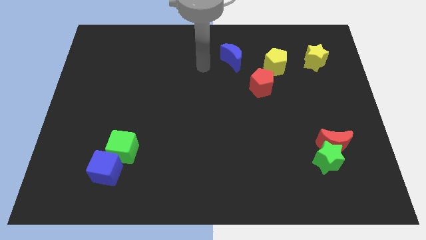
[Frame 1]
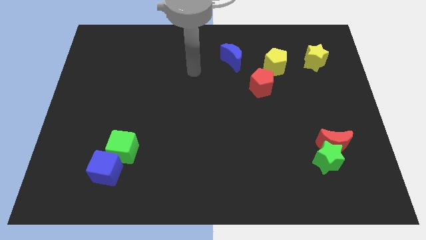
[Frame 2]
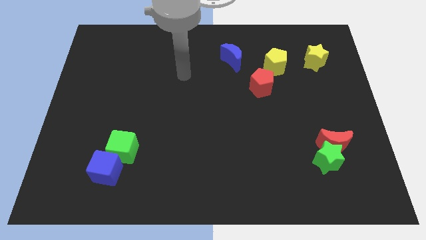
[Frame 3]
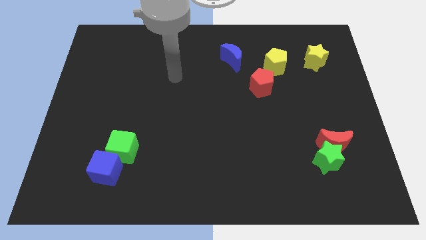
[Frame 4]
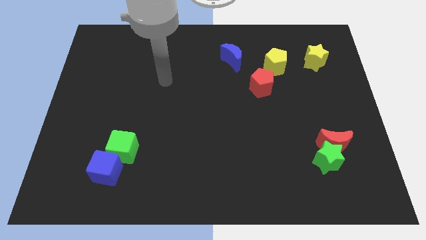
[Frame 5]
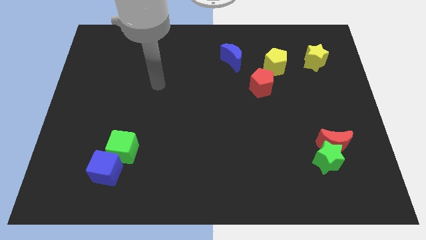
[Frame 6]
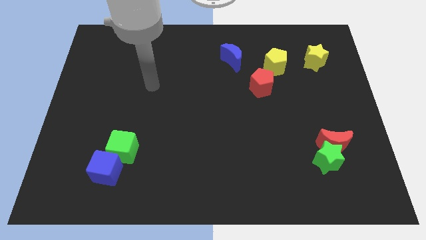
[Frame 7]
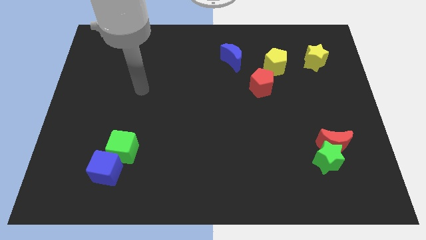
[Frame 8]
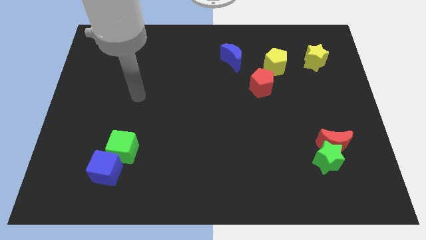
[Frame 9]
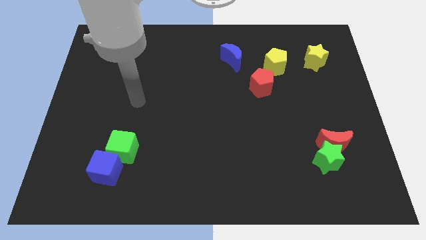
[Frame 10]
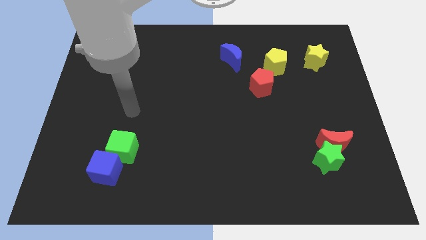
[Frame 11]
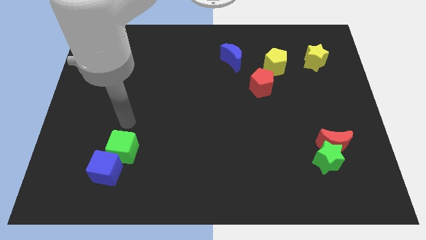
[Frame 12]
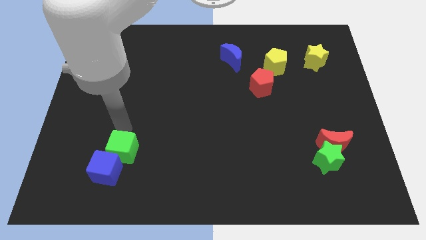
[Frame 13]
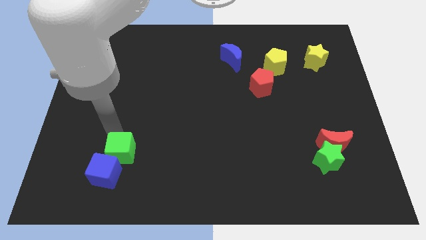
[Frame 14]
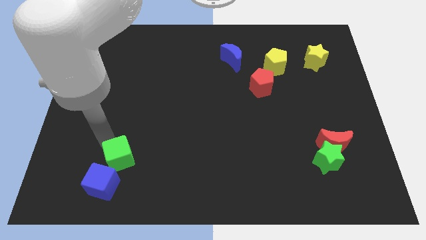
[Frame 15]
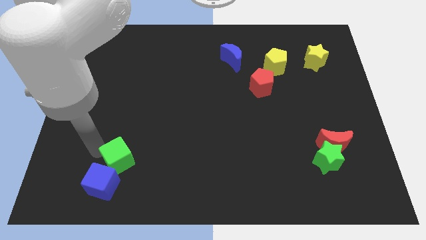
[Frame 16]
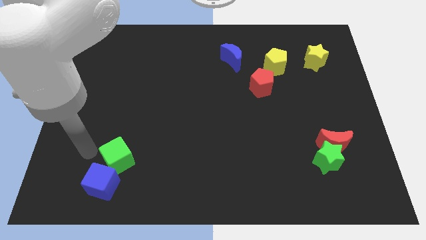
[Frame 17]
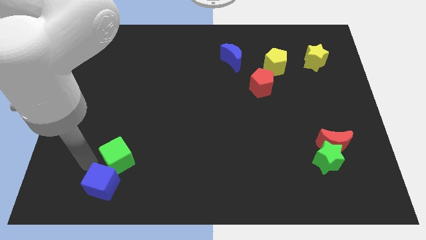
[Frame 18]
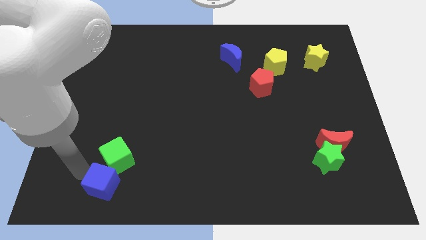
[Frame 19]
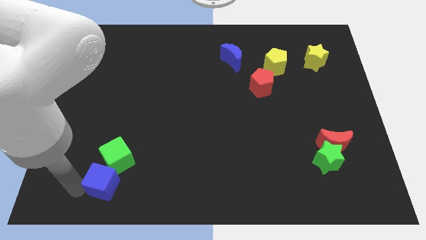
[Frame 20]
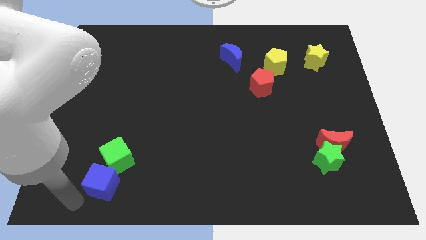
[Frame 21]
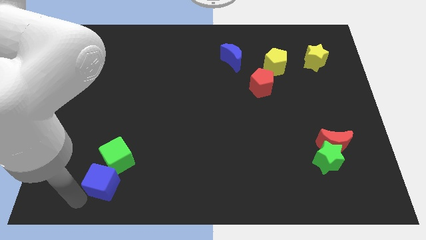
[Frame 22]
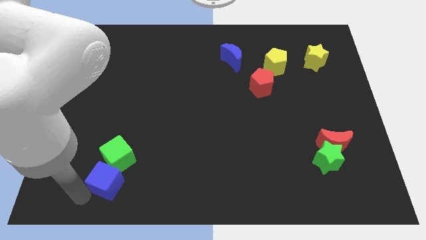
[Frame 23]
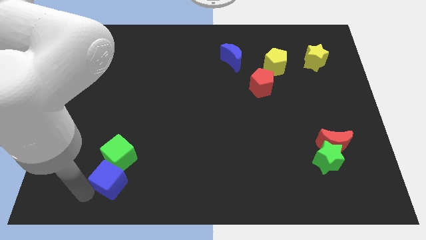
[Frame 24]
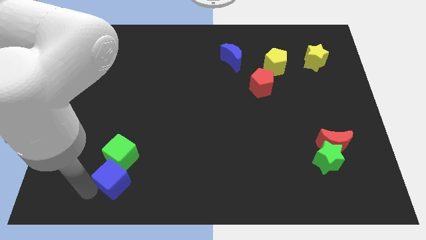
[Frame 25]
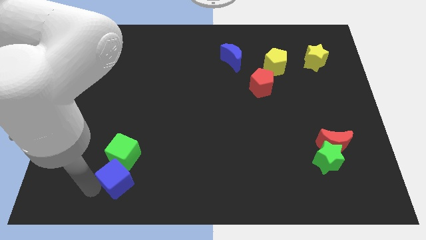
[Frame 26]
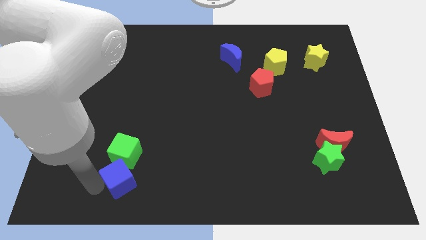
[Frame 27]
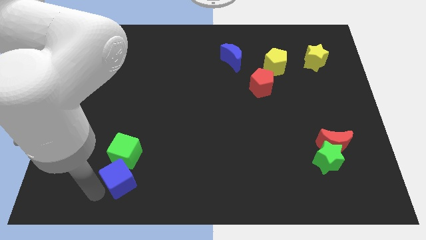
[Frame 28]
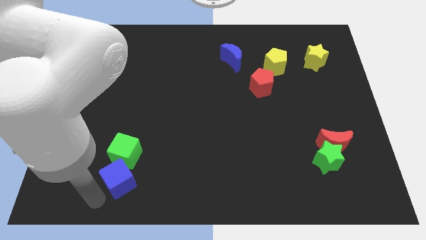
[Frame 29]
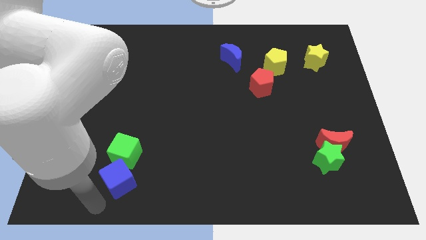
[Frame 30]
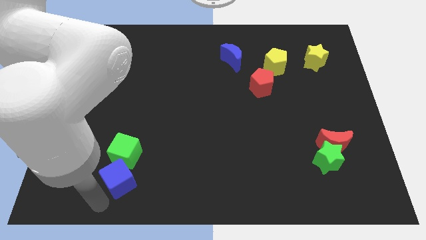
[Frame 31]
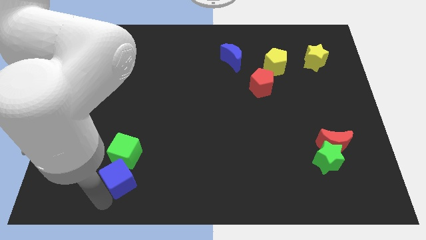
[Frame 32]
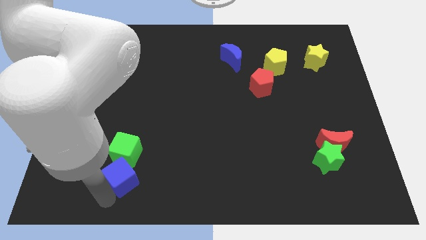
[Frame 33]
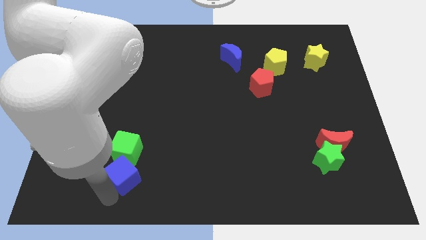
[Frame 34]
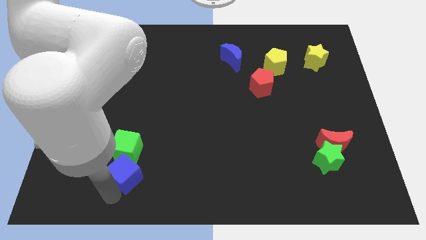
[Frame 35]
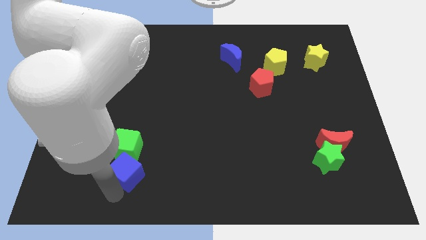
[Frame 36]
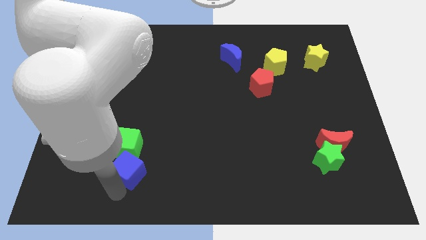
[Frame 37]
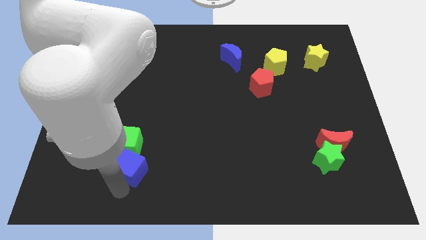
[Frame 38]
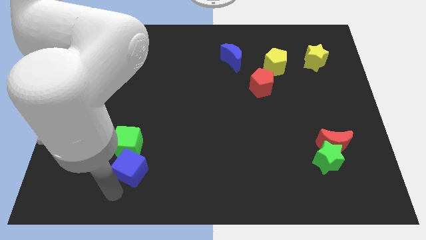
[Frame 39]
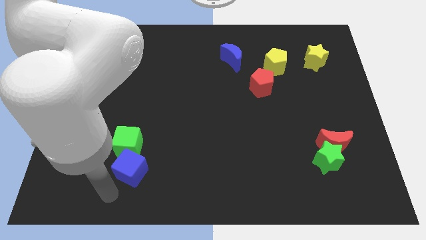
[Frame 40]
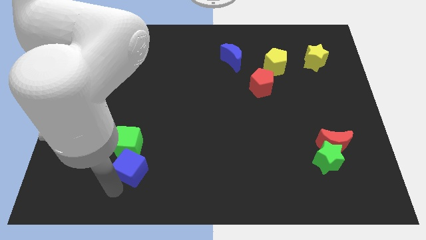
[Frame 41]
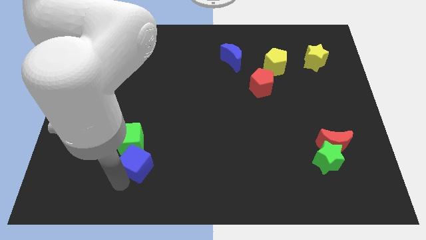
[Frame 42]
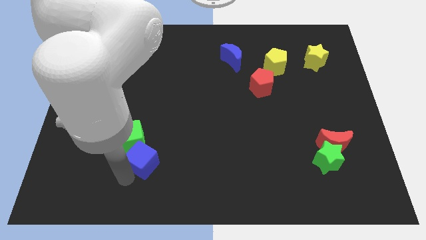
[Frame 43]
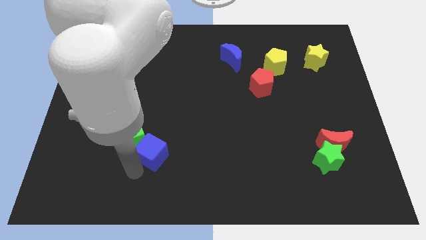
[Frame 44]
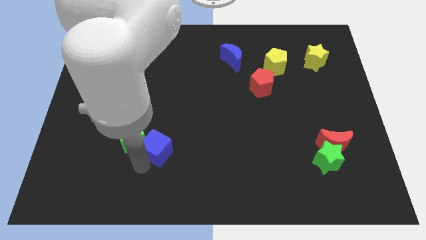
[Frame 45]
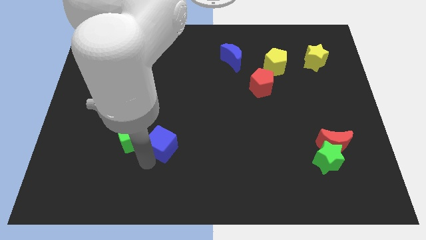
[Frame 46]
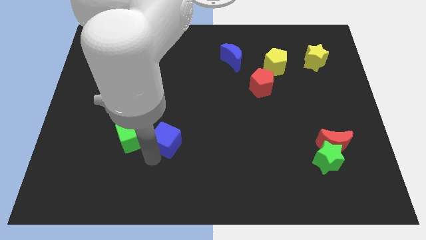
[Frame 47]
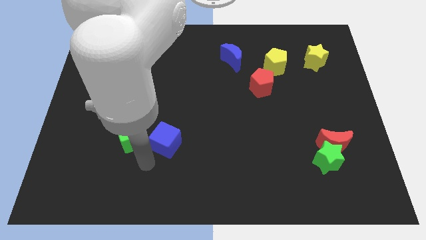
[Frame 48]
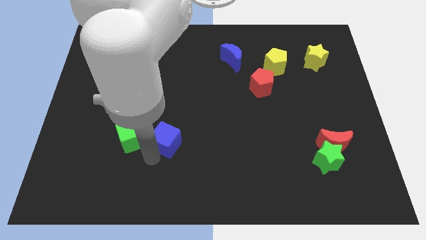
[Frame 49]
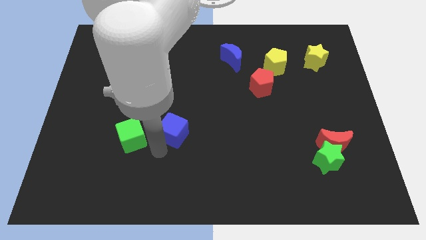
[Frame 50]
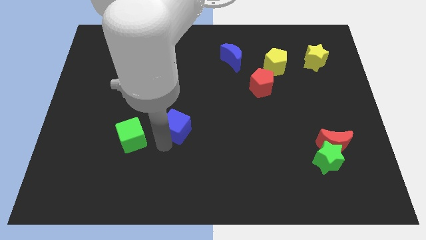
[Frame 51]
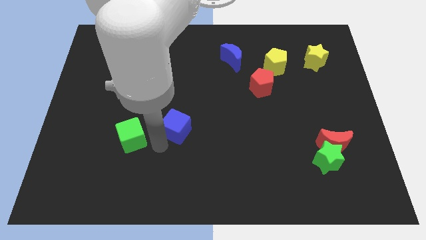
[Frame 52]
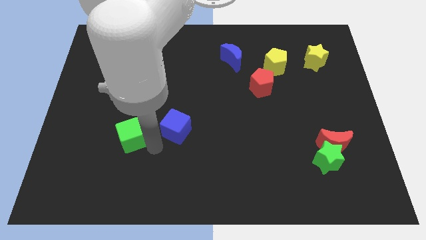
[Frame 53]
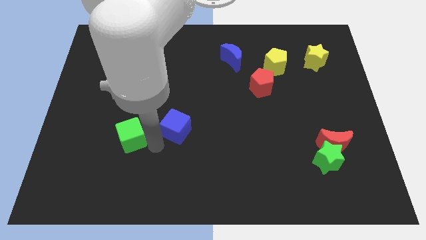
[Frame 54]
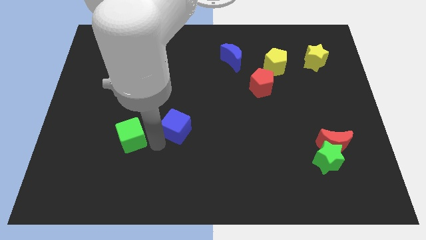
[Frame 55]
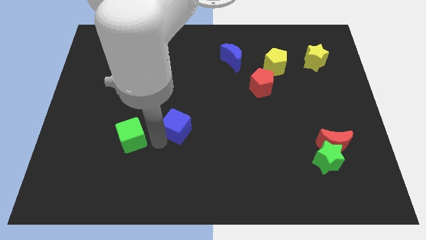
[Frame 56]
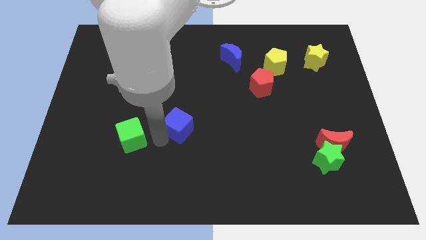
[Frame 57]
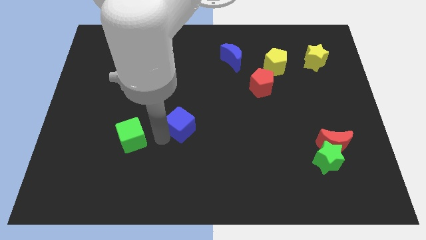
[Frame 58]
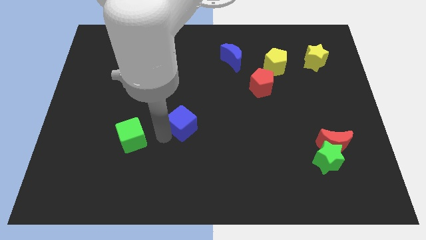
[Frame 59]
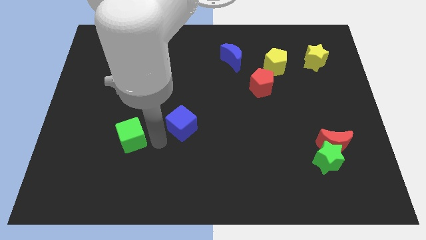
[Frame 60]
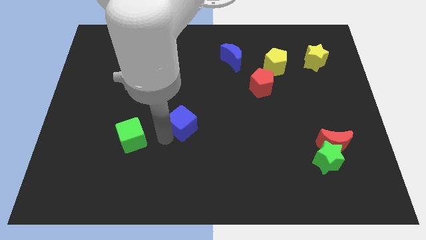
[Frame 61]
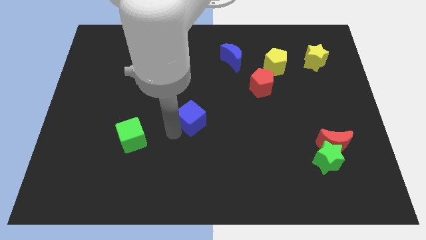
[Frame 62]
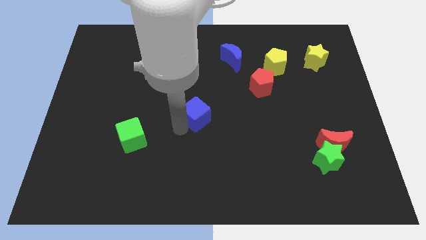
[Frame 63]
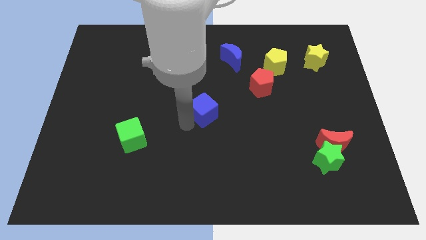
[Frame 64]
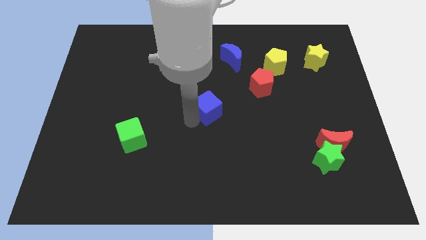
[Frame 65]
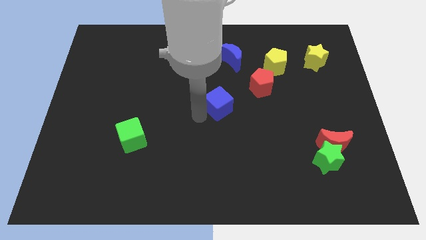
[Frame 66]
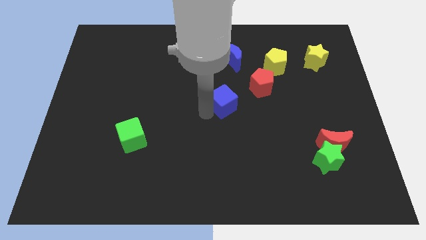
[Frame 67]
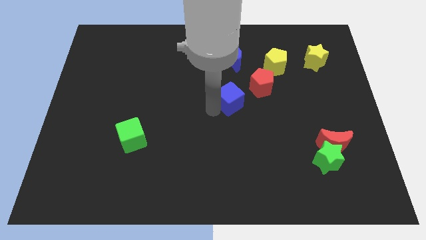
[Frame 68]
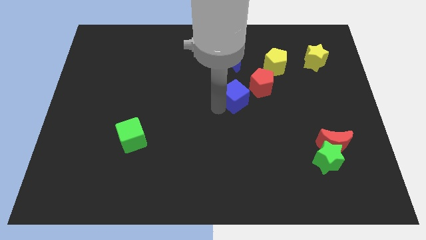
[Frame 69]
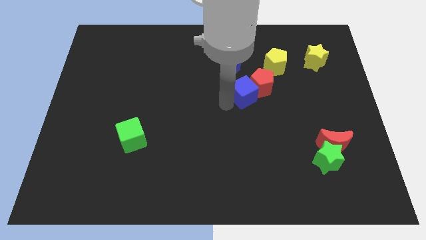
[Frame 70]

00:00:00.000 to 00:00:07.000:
slide the blue cube towards the red pentagon

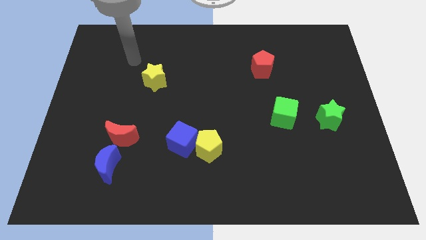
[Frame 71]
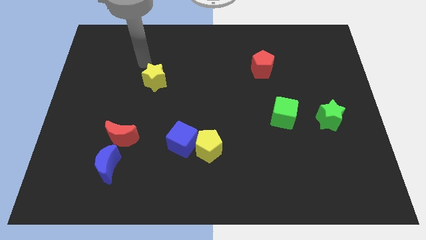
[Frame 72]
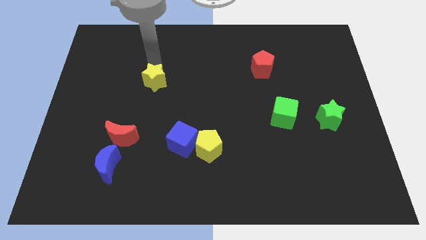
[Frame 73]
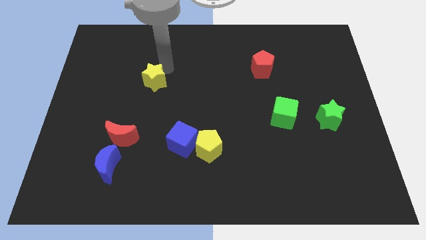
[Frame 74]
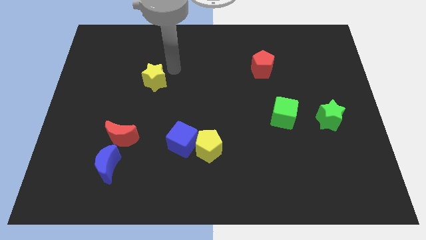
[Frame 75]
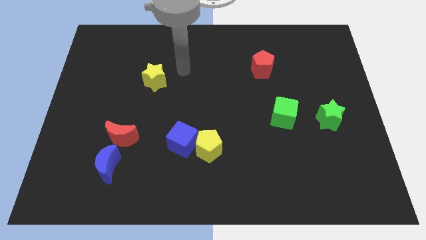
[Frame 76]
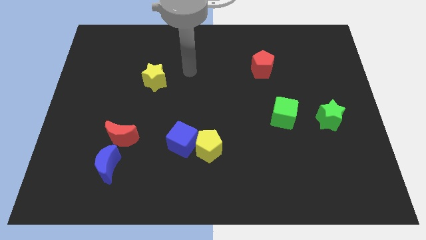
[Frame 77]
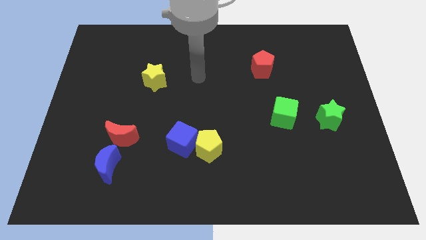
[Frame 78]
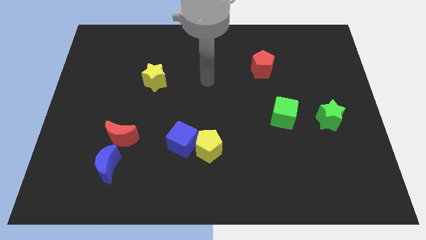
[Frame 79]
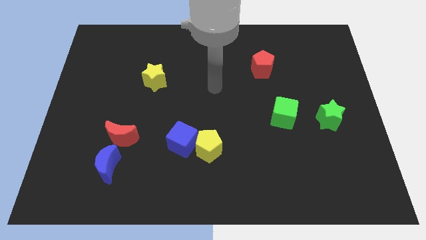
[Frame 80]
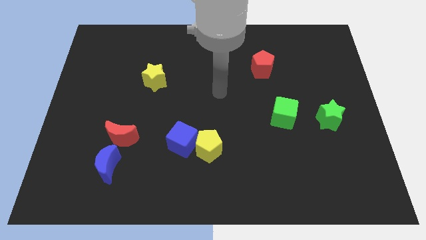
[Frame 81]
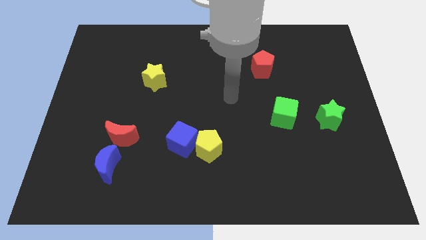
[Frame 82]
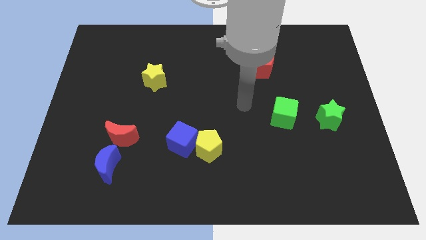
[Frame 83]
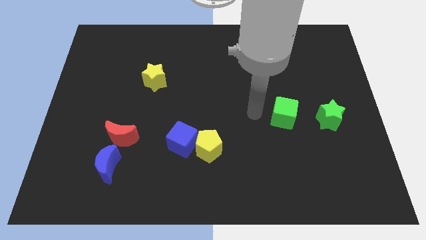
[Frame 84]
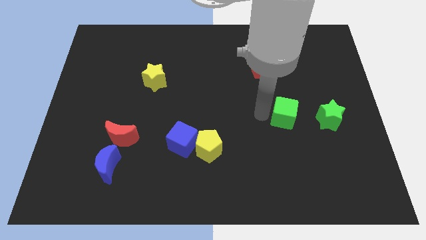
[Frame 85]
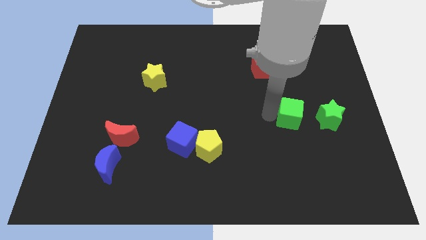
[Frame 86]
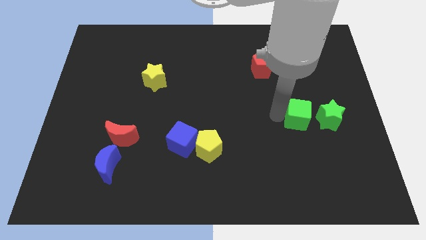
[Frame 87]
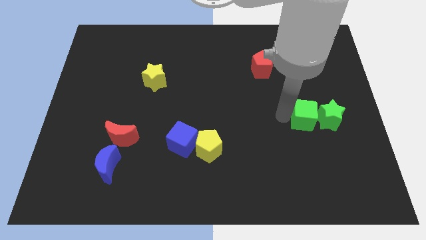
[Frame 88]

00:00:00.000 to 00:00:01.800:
push the green cube close to the green star
